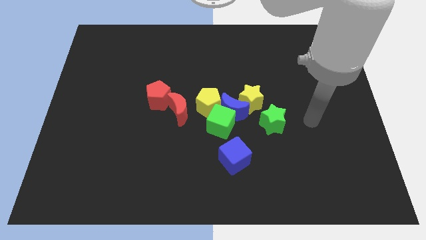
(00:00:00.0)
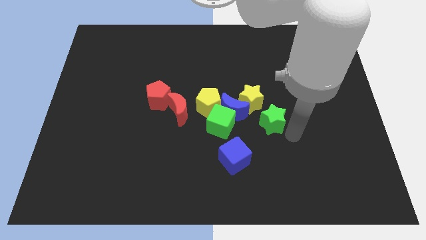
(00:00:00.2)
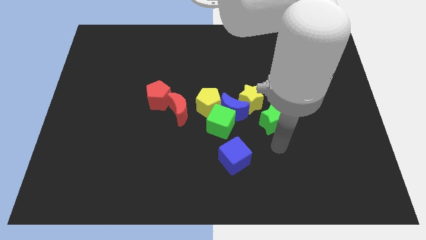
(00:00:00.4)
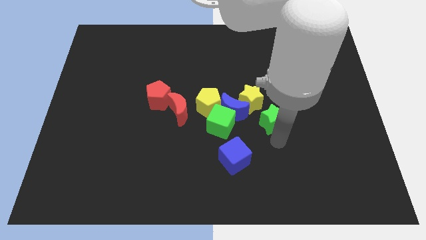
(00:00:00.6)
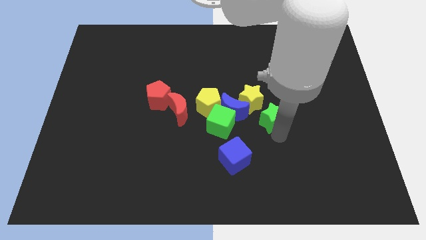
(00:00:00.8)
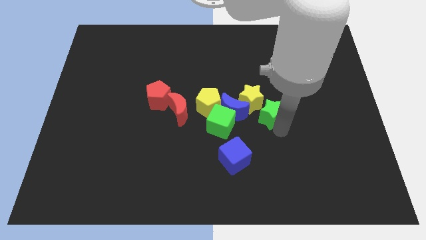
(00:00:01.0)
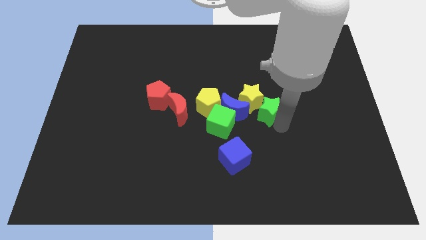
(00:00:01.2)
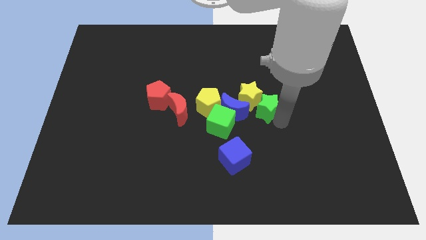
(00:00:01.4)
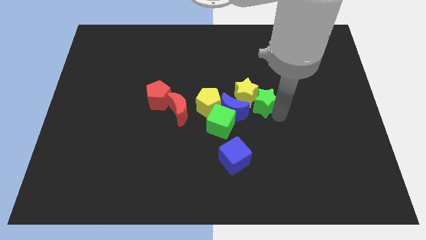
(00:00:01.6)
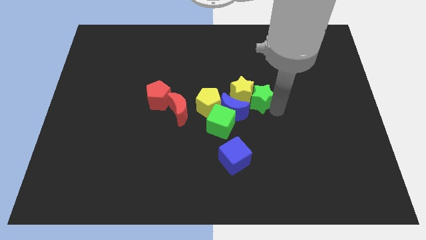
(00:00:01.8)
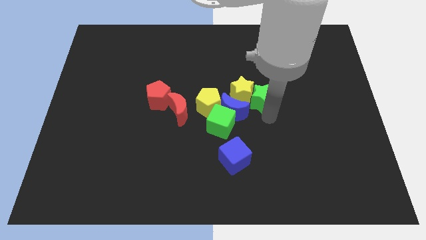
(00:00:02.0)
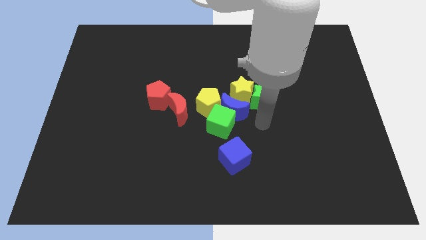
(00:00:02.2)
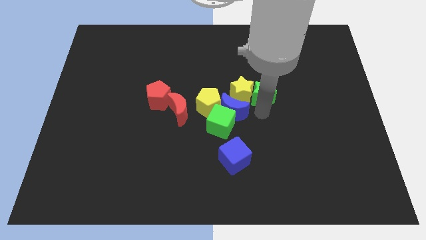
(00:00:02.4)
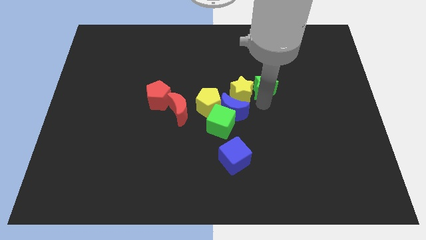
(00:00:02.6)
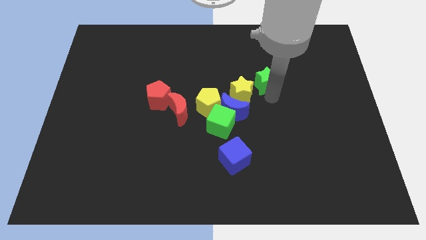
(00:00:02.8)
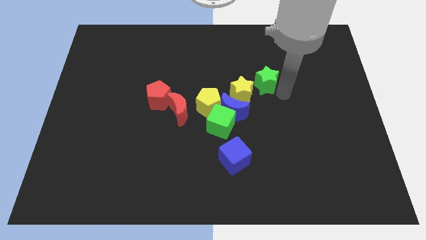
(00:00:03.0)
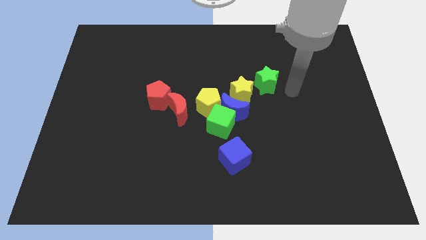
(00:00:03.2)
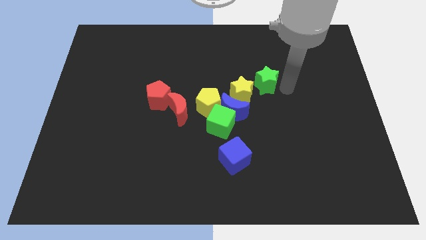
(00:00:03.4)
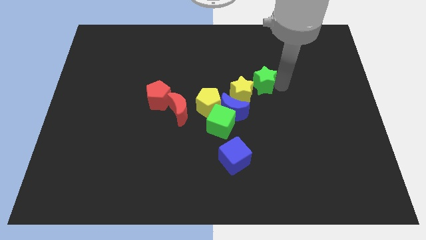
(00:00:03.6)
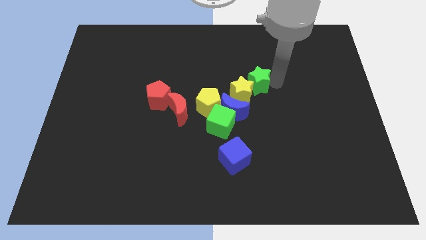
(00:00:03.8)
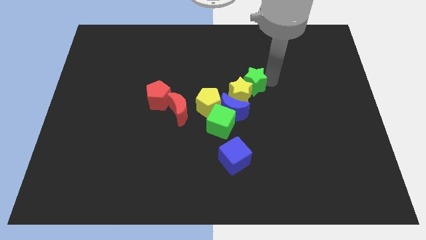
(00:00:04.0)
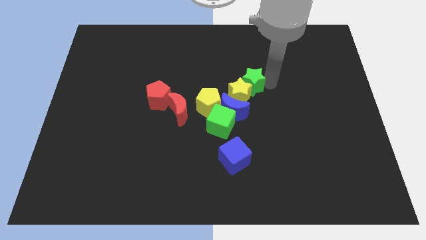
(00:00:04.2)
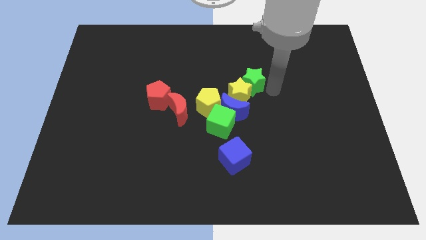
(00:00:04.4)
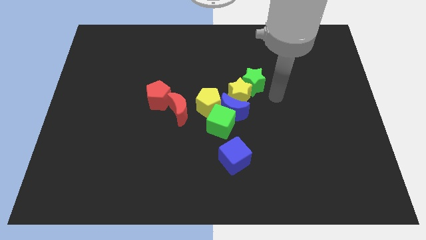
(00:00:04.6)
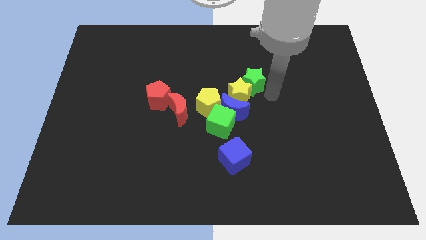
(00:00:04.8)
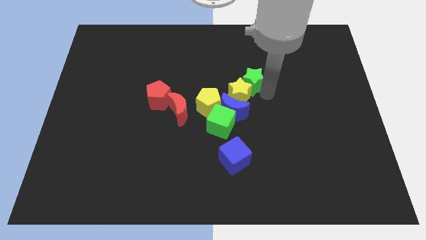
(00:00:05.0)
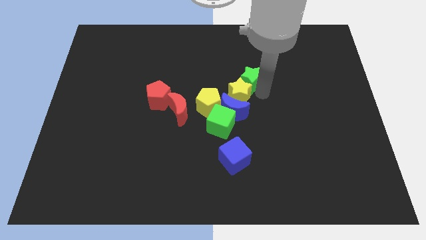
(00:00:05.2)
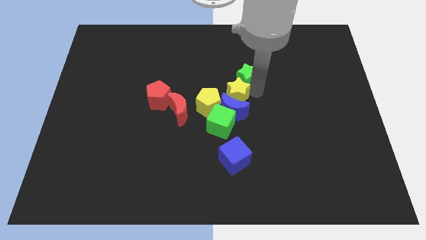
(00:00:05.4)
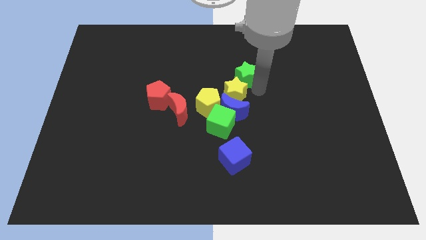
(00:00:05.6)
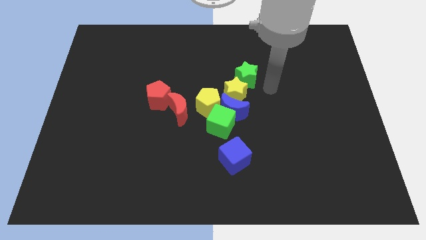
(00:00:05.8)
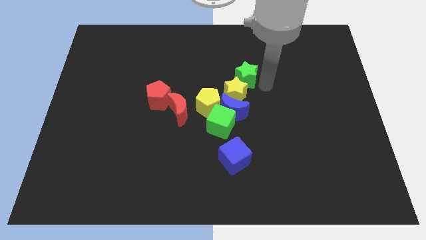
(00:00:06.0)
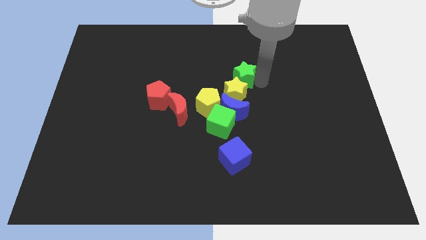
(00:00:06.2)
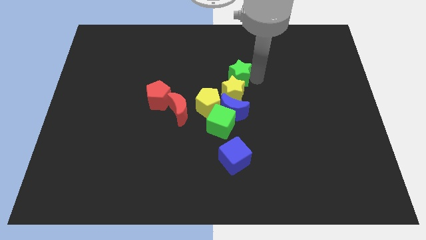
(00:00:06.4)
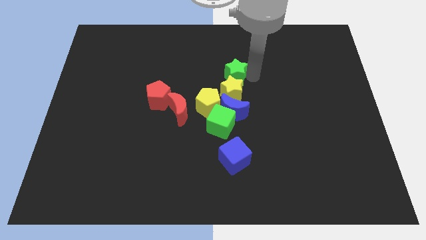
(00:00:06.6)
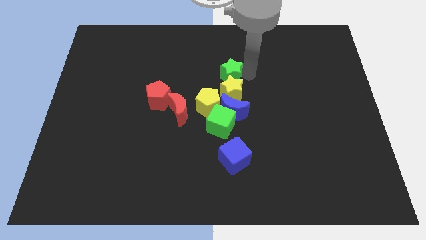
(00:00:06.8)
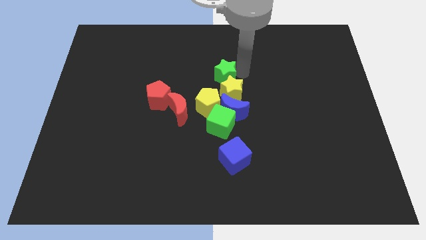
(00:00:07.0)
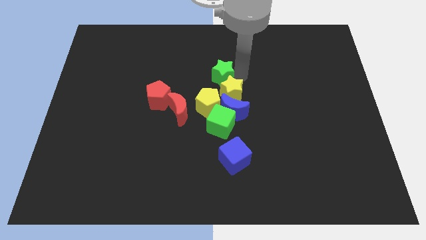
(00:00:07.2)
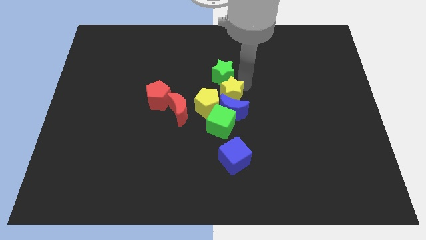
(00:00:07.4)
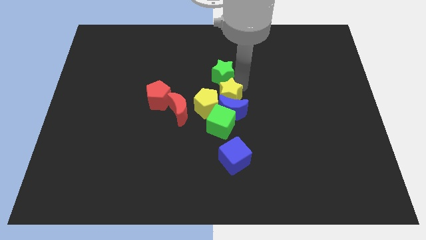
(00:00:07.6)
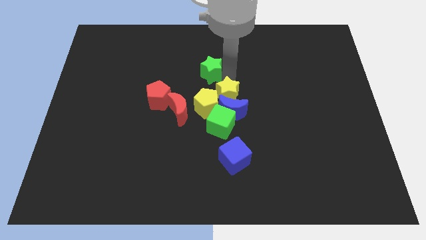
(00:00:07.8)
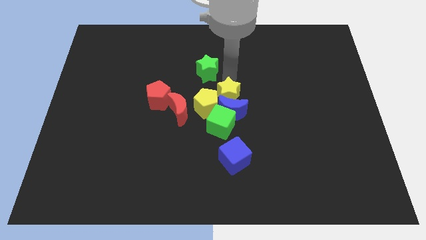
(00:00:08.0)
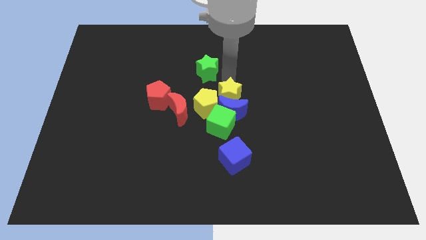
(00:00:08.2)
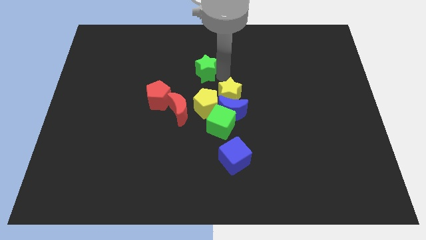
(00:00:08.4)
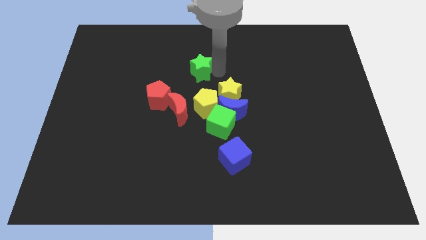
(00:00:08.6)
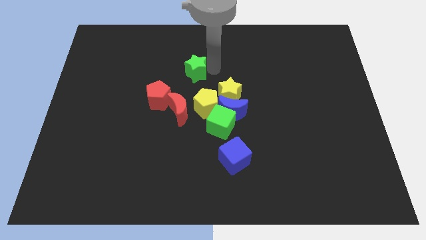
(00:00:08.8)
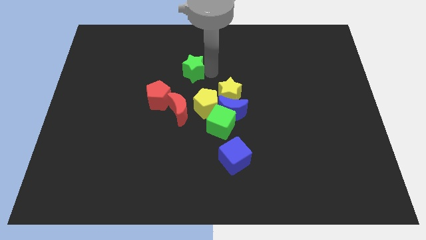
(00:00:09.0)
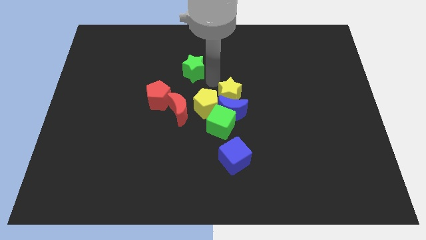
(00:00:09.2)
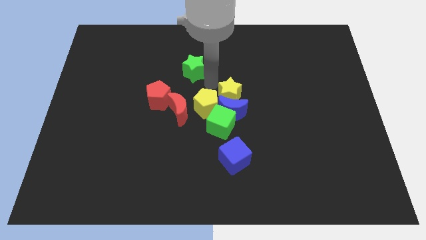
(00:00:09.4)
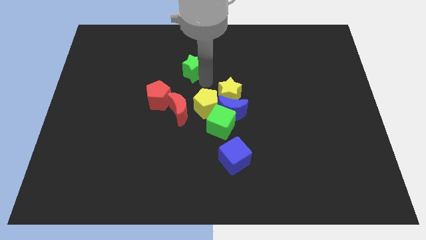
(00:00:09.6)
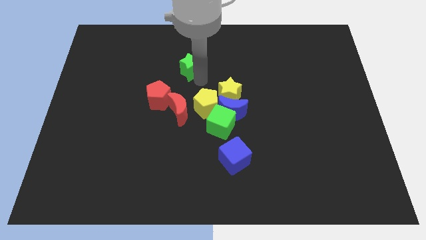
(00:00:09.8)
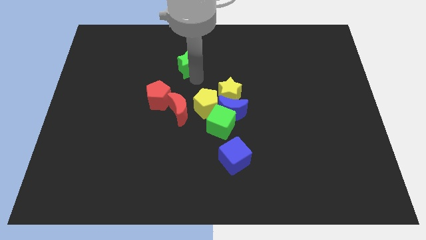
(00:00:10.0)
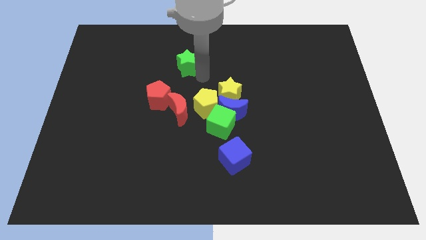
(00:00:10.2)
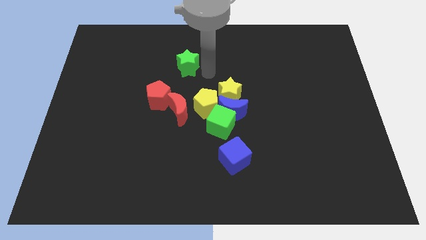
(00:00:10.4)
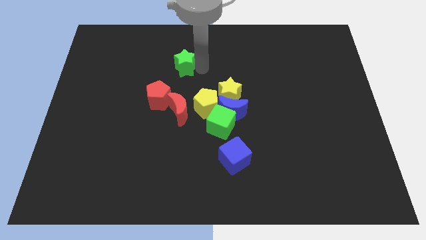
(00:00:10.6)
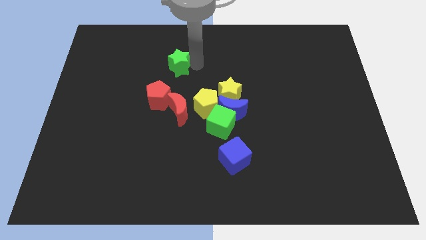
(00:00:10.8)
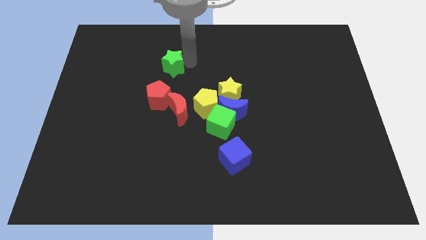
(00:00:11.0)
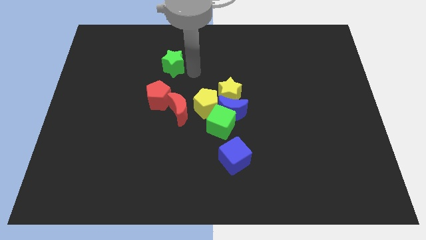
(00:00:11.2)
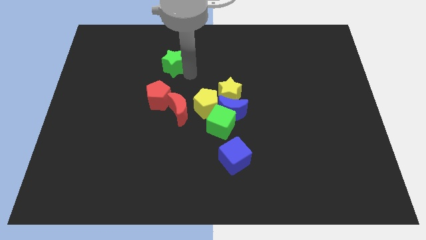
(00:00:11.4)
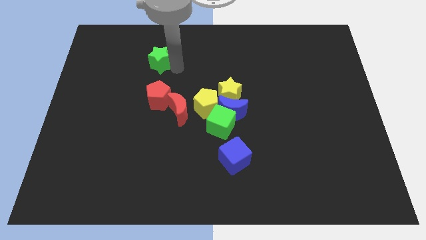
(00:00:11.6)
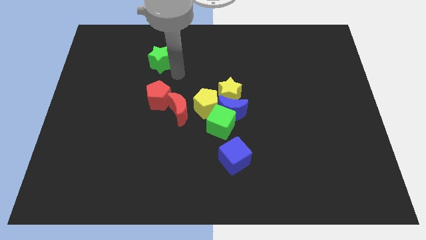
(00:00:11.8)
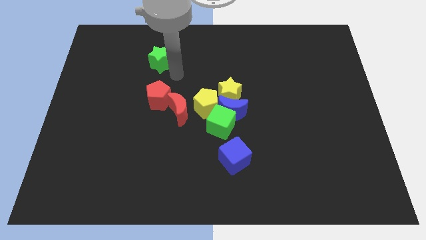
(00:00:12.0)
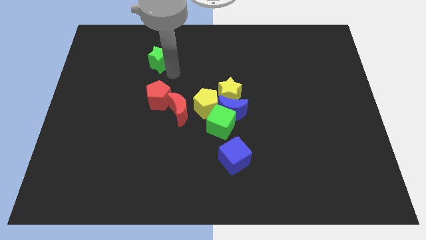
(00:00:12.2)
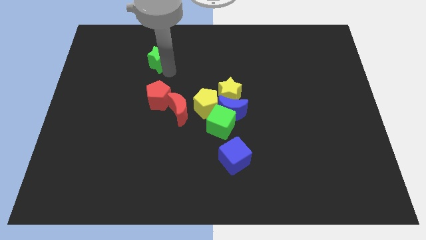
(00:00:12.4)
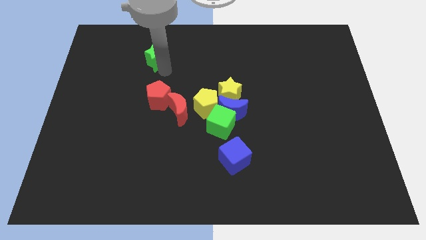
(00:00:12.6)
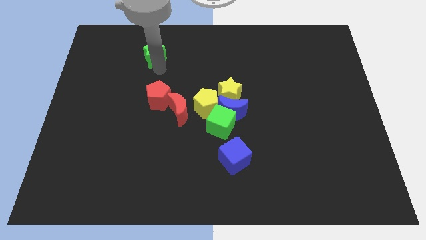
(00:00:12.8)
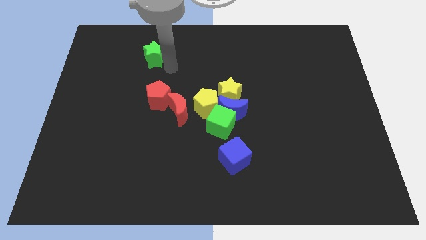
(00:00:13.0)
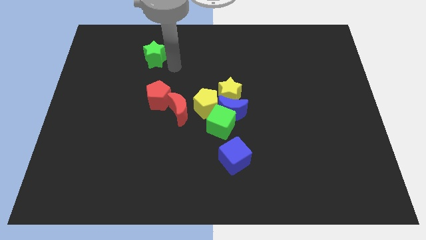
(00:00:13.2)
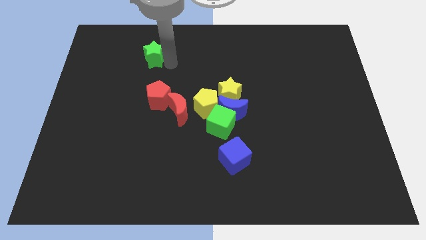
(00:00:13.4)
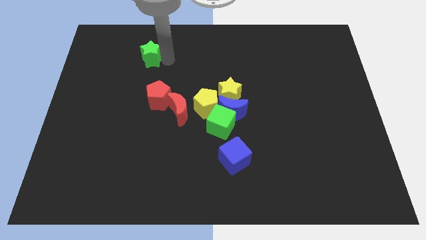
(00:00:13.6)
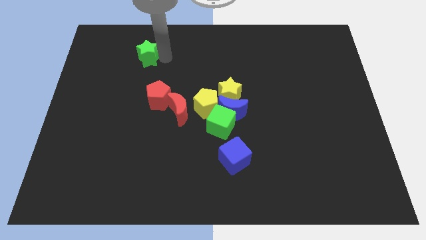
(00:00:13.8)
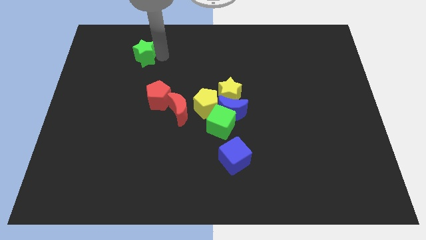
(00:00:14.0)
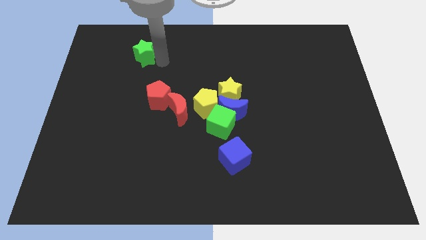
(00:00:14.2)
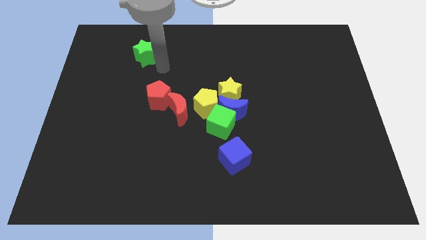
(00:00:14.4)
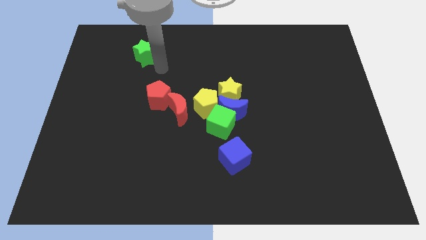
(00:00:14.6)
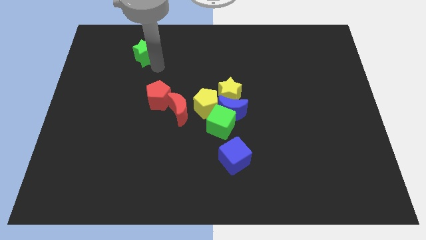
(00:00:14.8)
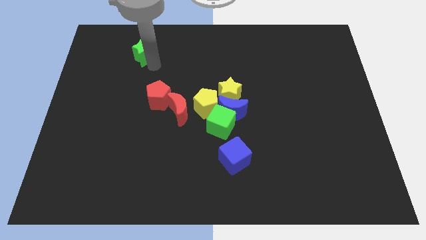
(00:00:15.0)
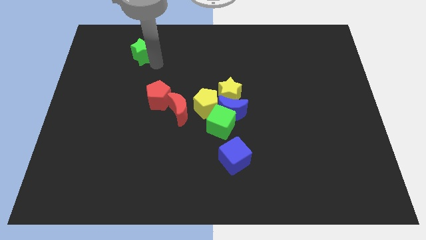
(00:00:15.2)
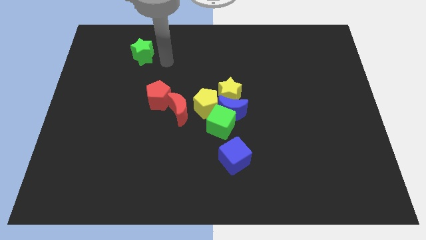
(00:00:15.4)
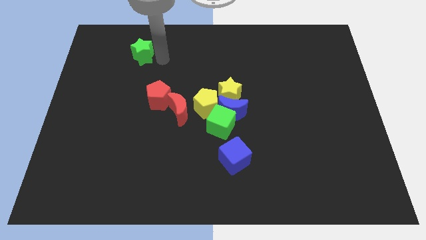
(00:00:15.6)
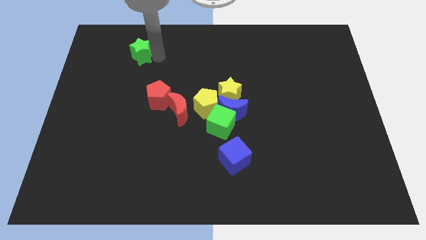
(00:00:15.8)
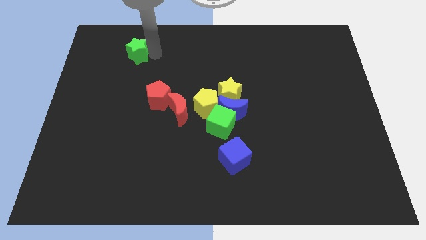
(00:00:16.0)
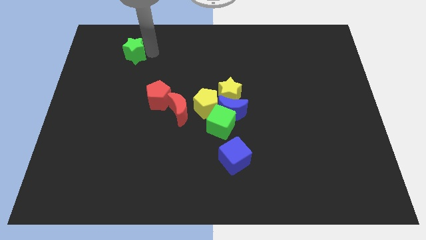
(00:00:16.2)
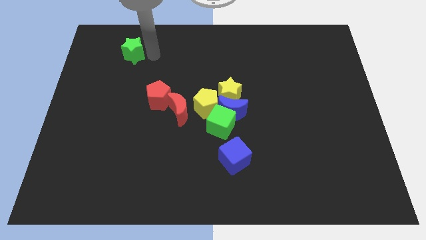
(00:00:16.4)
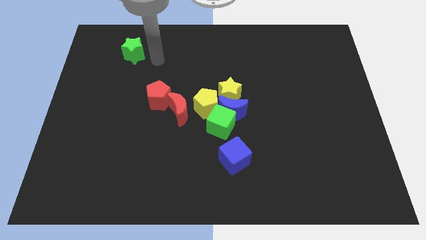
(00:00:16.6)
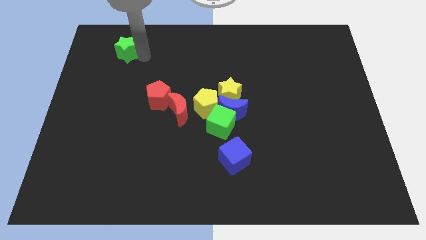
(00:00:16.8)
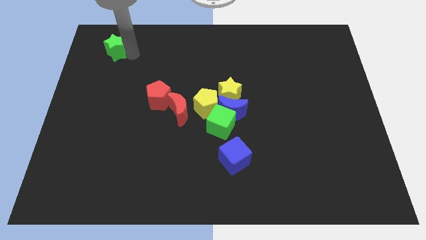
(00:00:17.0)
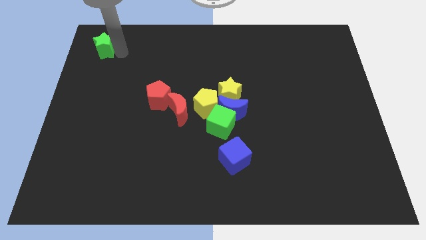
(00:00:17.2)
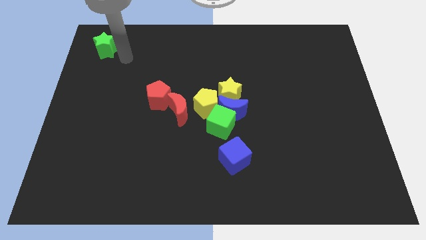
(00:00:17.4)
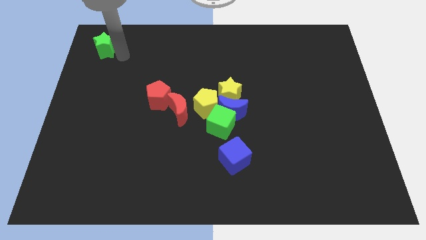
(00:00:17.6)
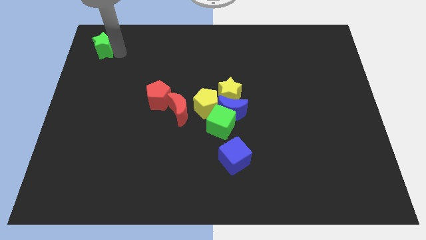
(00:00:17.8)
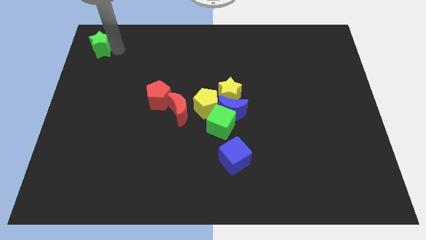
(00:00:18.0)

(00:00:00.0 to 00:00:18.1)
push the green star to the upper left corner
